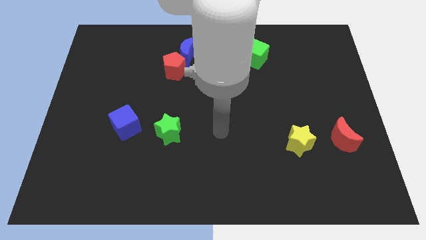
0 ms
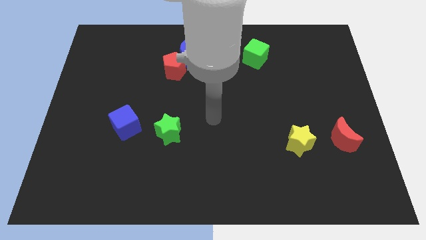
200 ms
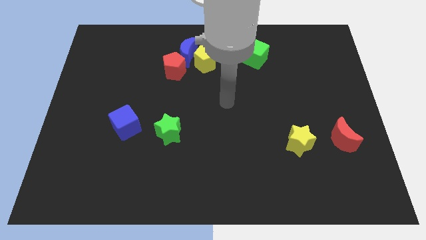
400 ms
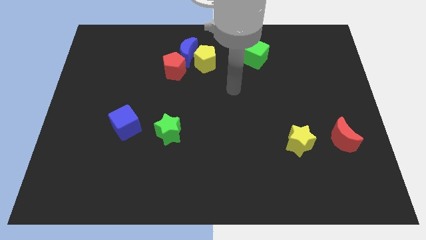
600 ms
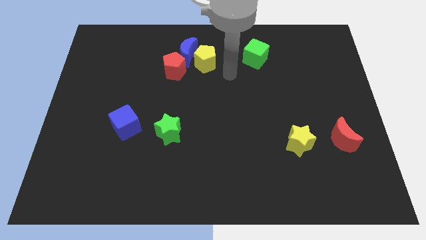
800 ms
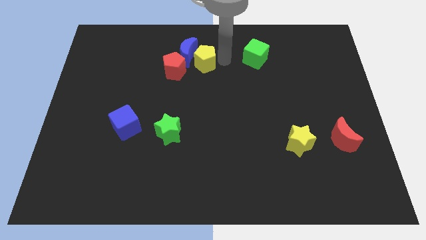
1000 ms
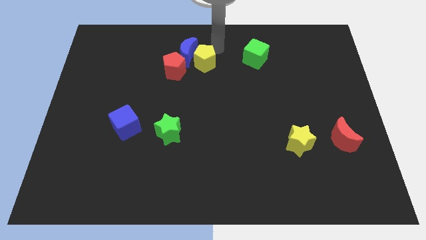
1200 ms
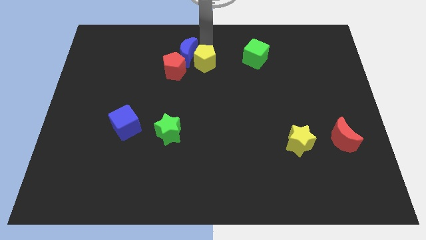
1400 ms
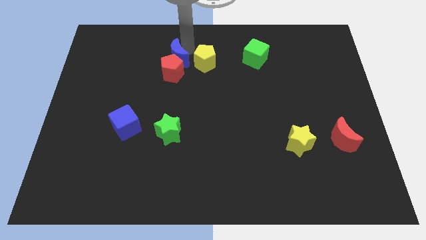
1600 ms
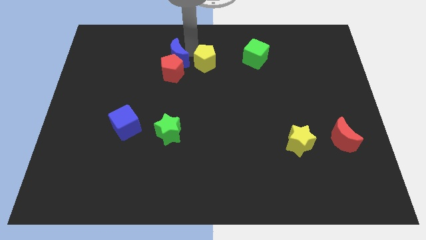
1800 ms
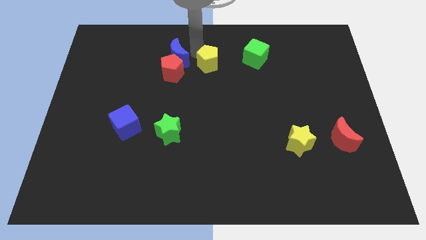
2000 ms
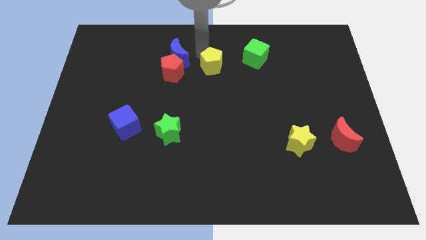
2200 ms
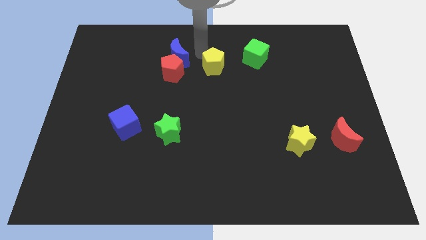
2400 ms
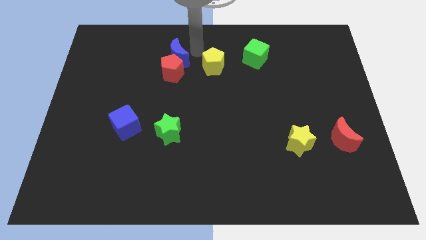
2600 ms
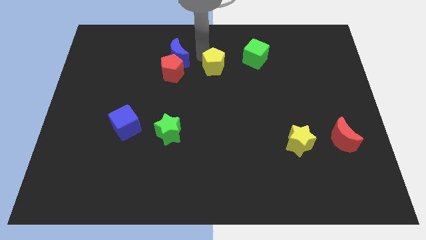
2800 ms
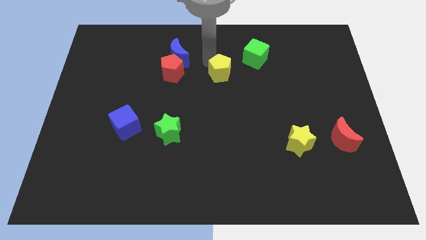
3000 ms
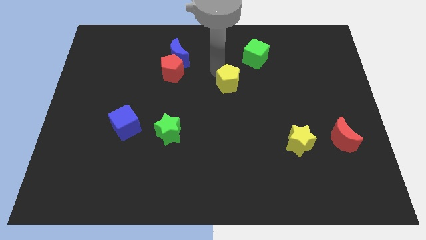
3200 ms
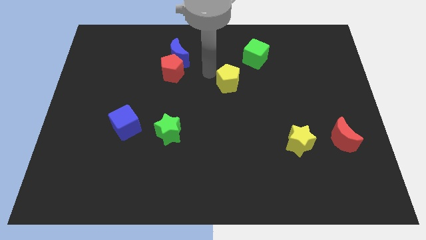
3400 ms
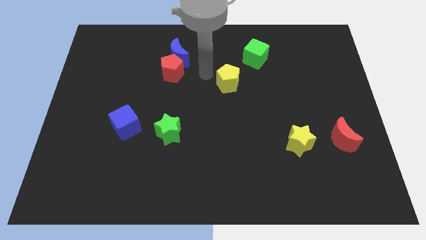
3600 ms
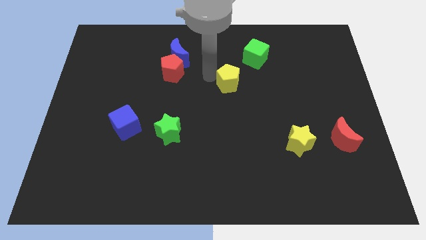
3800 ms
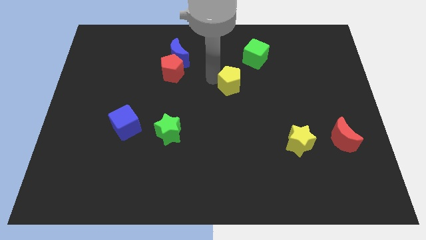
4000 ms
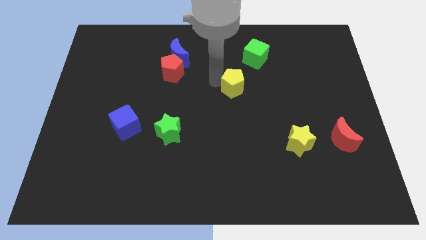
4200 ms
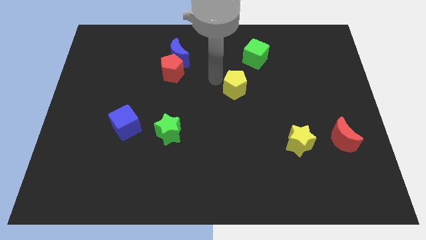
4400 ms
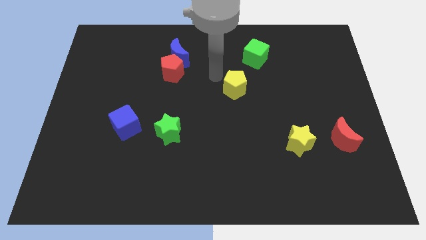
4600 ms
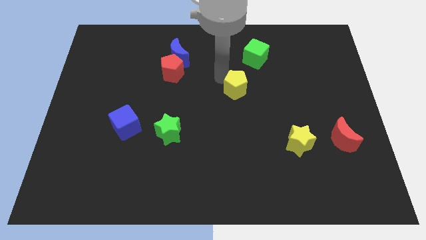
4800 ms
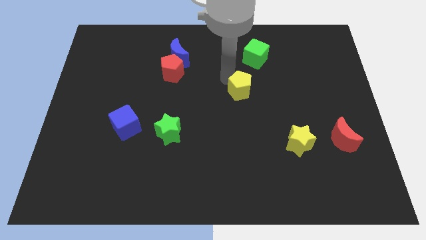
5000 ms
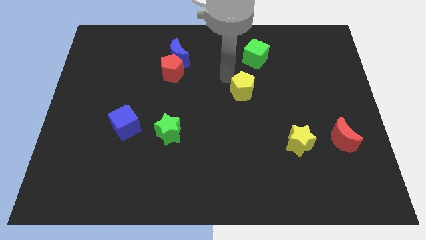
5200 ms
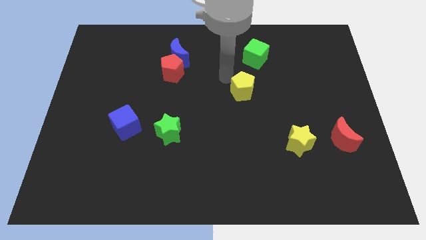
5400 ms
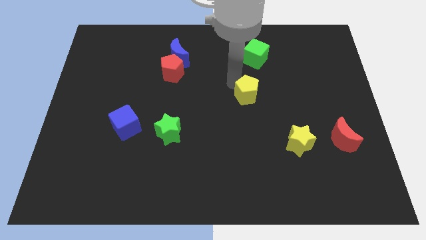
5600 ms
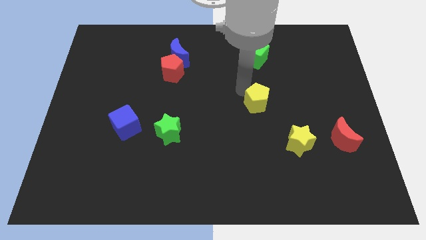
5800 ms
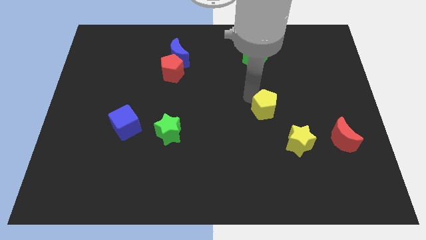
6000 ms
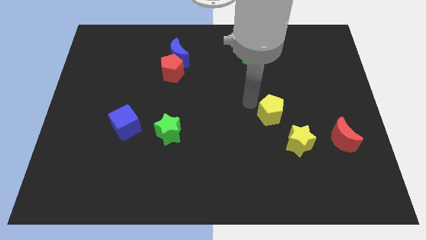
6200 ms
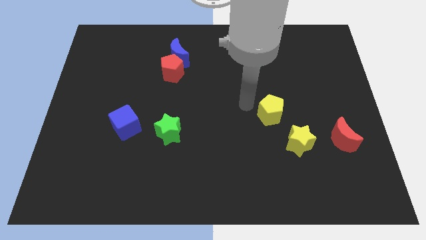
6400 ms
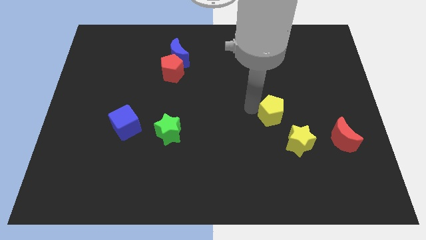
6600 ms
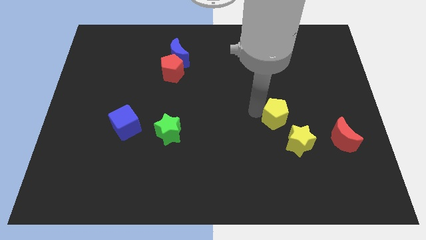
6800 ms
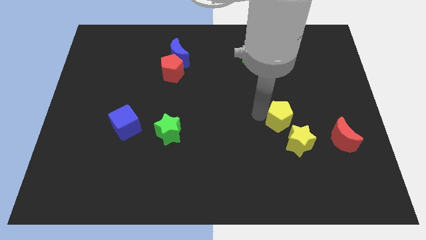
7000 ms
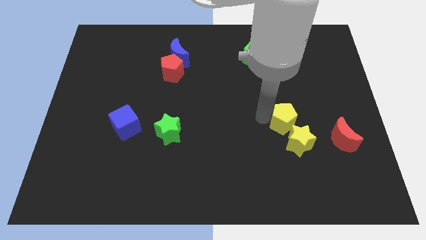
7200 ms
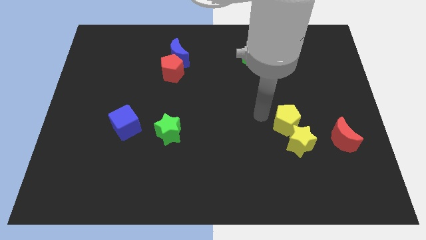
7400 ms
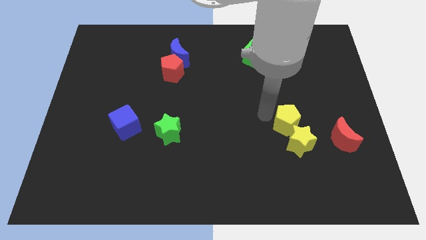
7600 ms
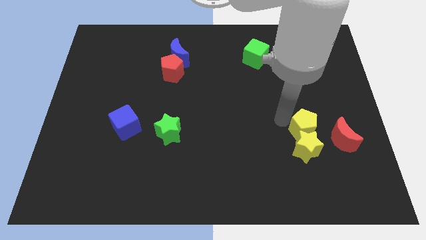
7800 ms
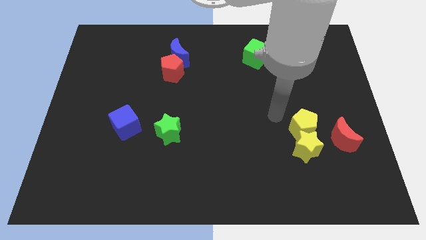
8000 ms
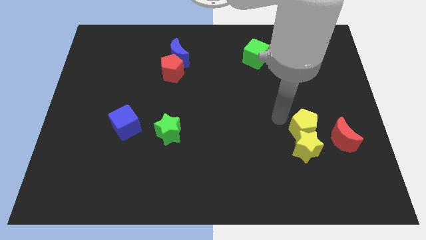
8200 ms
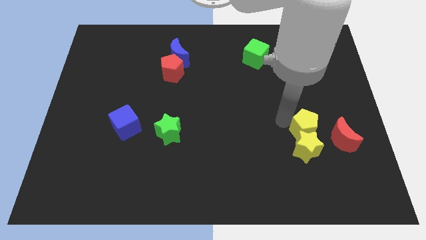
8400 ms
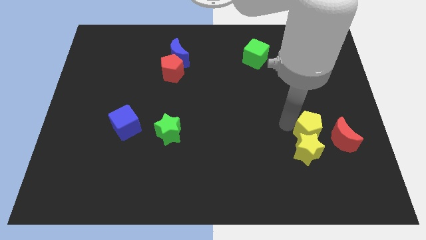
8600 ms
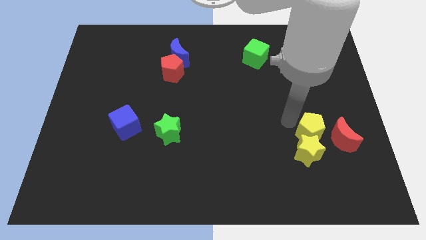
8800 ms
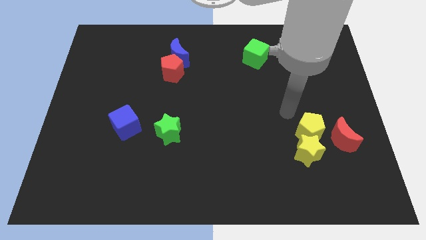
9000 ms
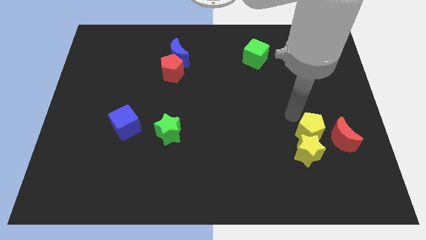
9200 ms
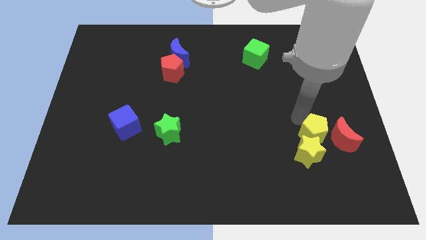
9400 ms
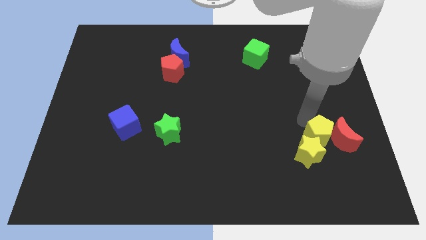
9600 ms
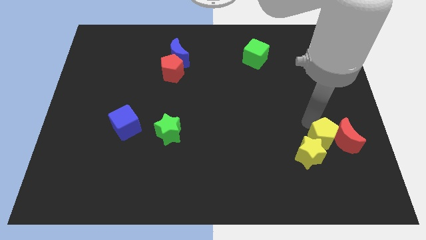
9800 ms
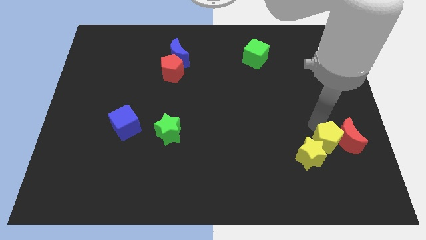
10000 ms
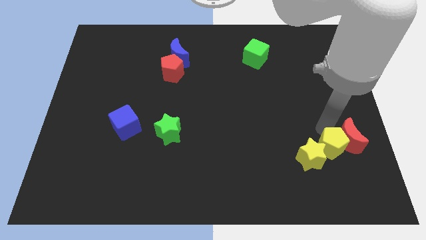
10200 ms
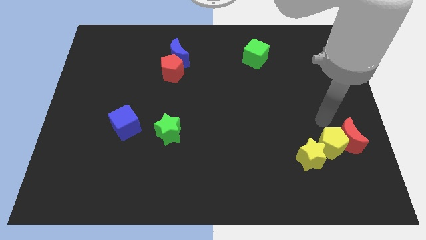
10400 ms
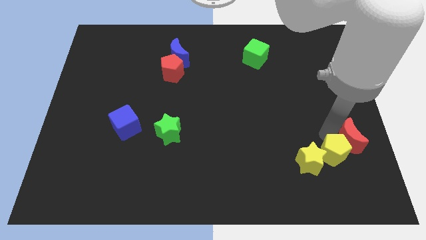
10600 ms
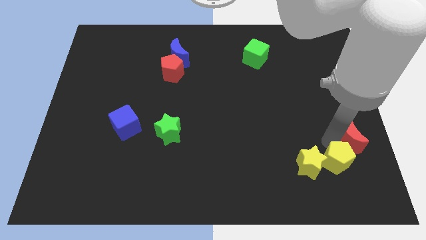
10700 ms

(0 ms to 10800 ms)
move the yellow pentagon to the bottom right of the yellow star

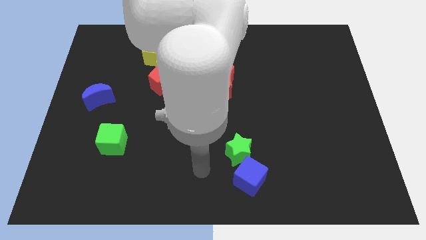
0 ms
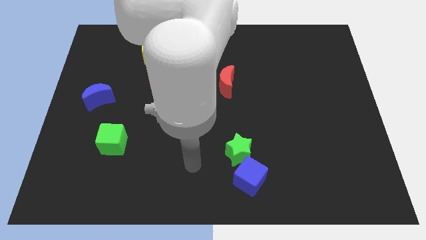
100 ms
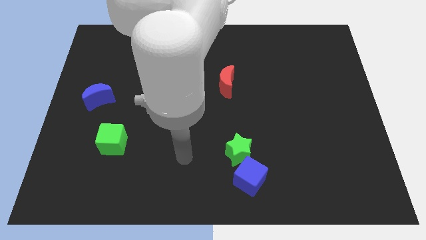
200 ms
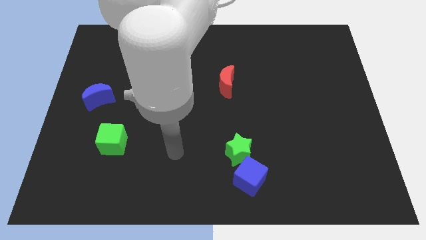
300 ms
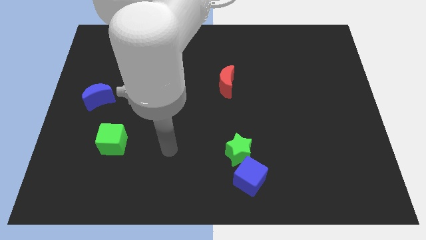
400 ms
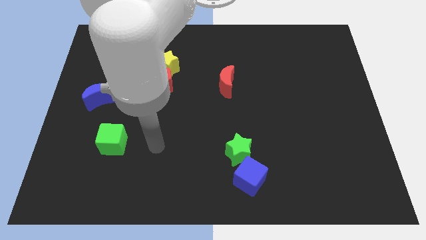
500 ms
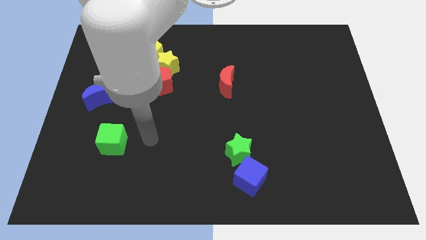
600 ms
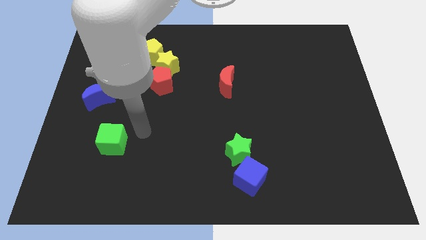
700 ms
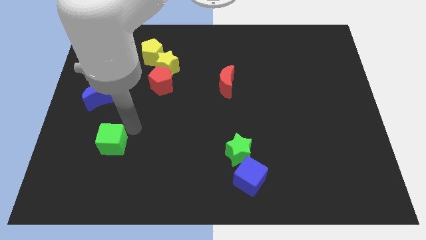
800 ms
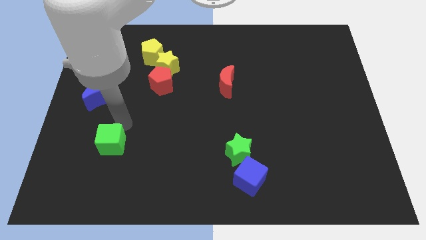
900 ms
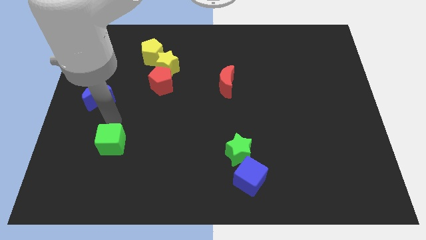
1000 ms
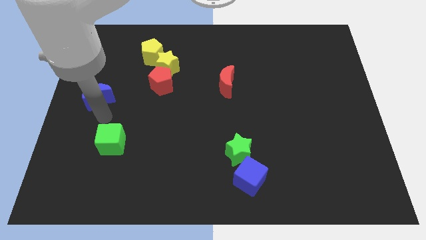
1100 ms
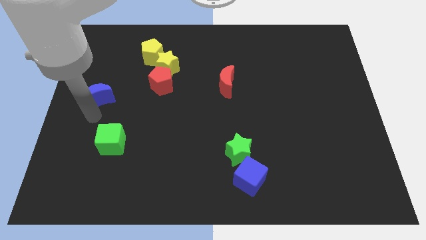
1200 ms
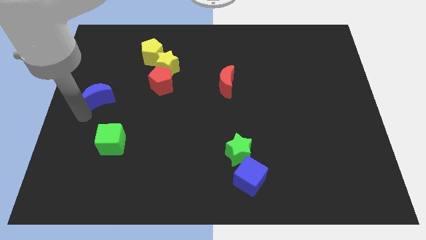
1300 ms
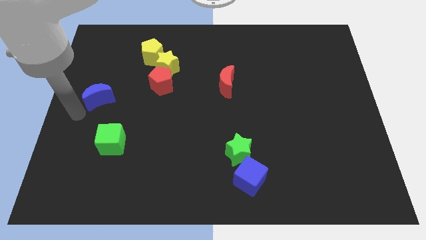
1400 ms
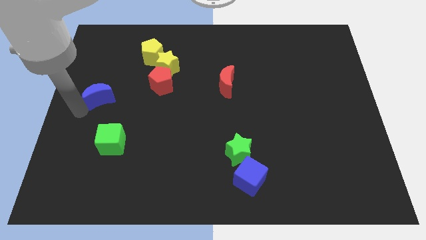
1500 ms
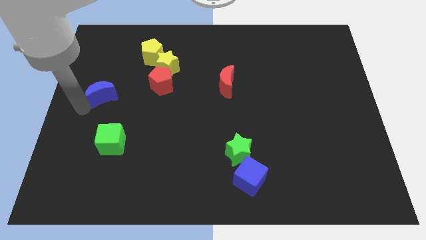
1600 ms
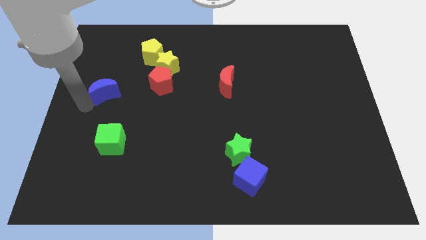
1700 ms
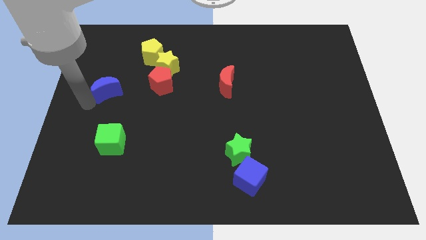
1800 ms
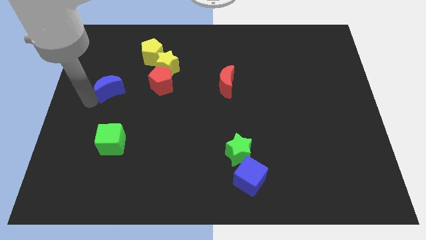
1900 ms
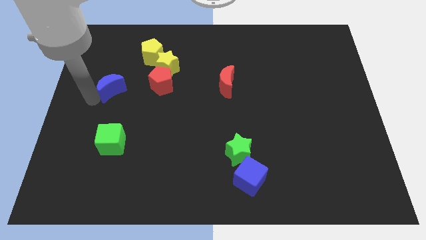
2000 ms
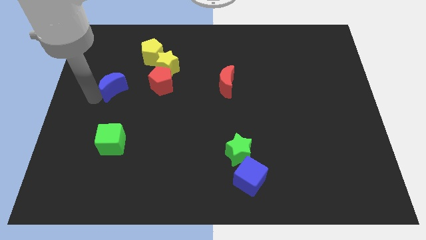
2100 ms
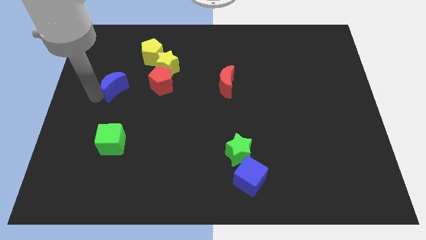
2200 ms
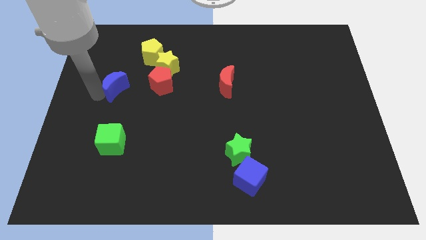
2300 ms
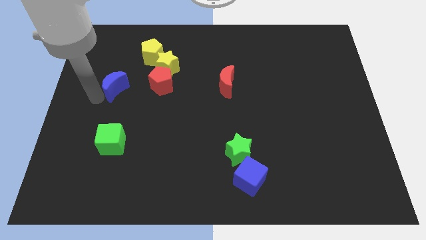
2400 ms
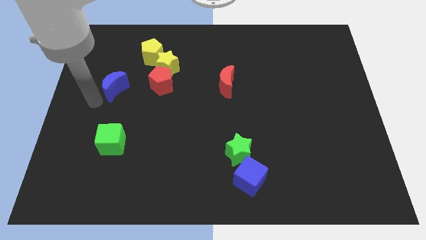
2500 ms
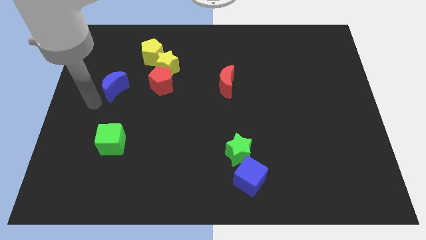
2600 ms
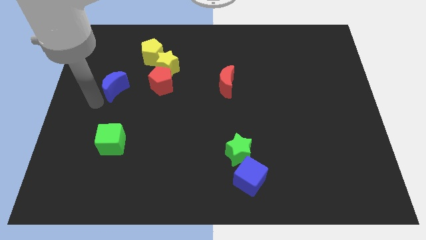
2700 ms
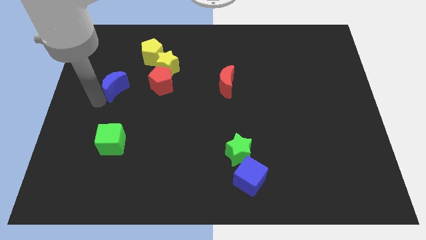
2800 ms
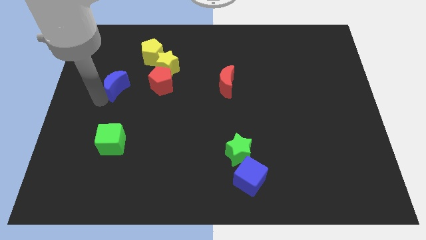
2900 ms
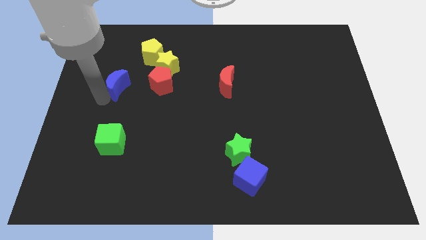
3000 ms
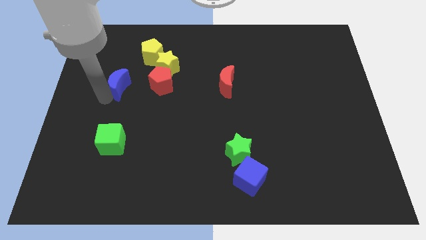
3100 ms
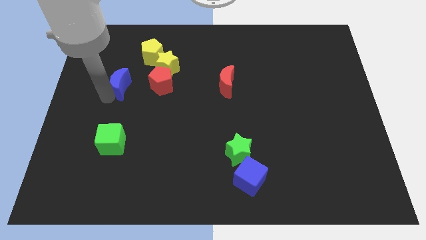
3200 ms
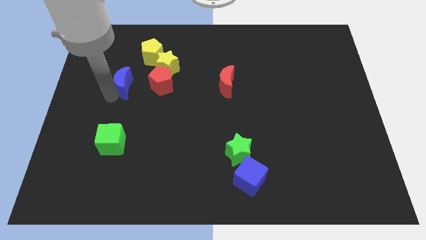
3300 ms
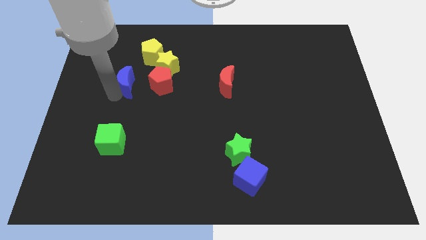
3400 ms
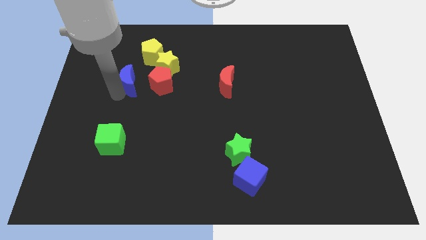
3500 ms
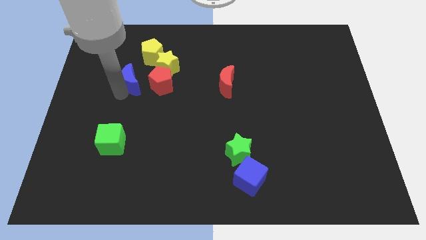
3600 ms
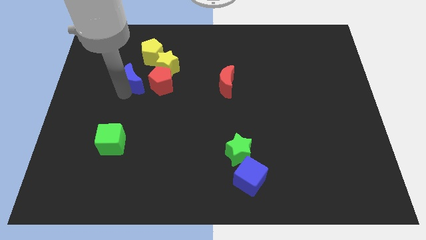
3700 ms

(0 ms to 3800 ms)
move the blue moon to the top left of the red pentagon
